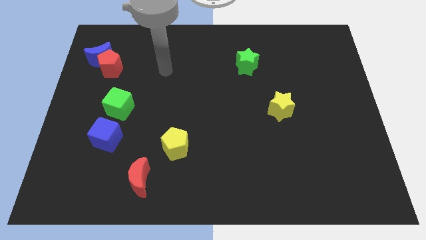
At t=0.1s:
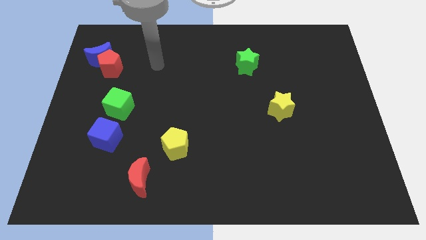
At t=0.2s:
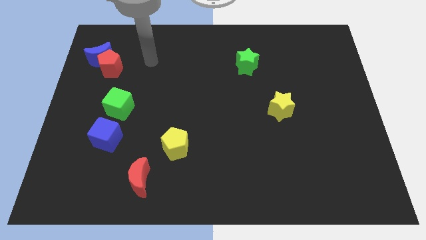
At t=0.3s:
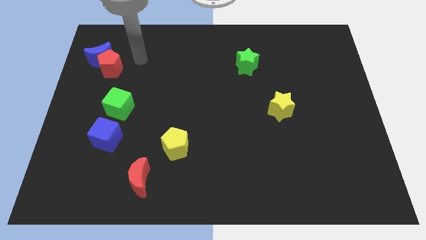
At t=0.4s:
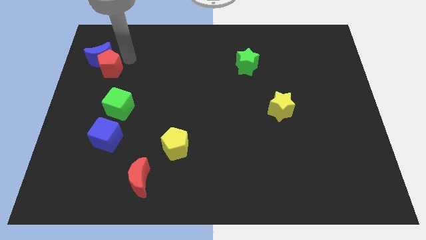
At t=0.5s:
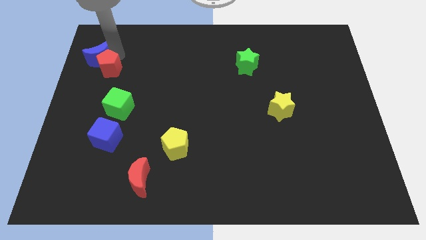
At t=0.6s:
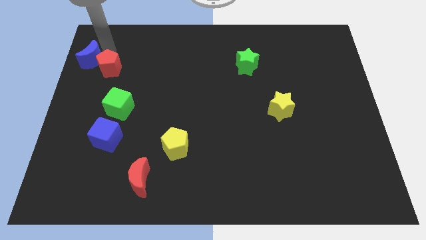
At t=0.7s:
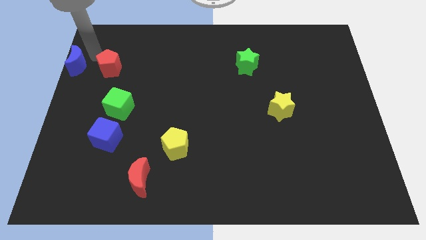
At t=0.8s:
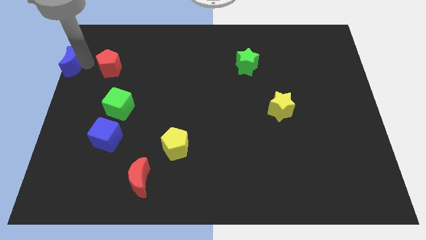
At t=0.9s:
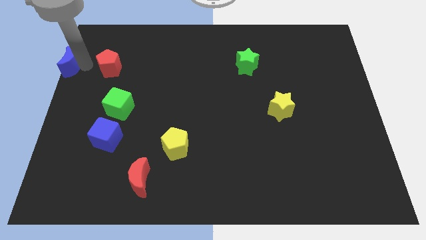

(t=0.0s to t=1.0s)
separate the red pentagon from the blue moon

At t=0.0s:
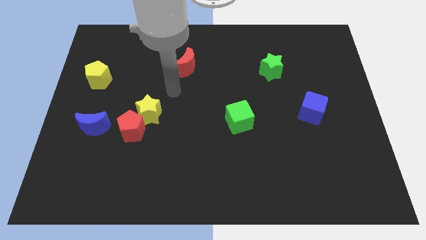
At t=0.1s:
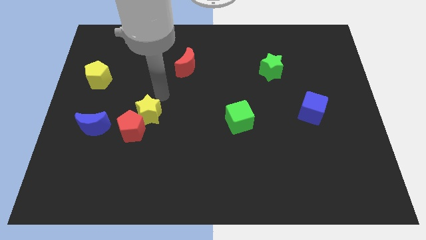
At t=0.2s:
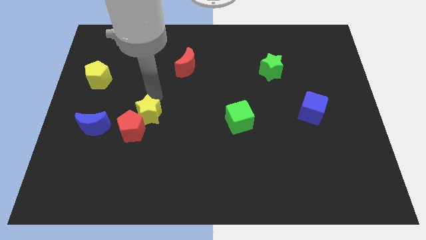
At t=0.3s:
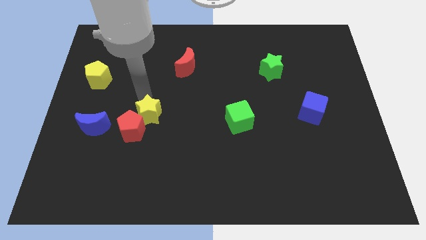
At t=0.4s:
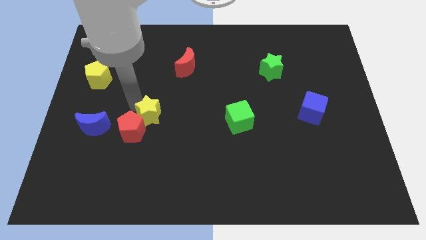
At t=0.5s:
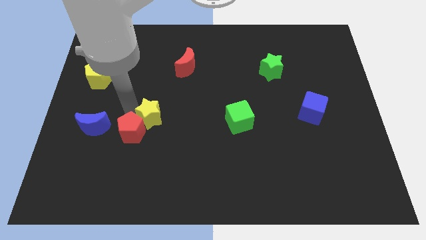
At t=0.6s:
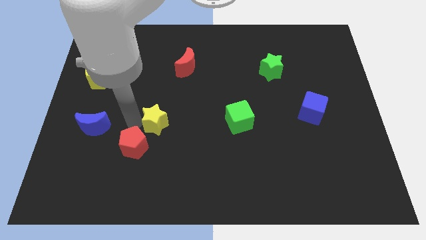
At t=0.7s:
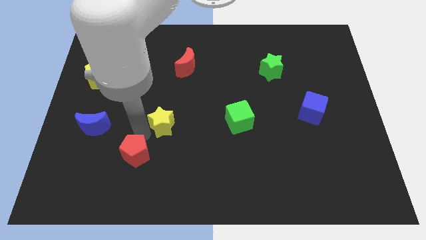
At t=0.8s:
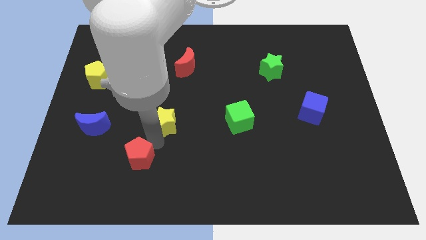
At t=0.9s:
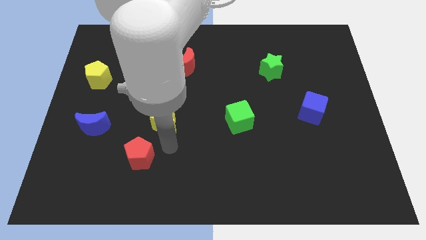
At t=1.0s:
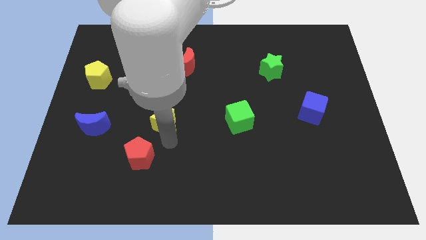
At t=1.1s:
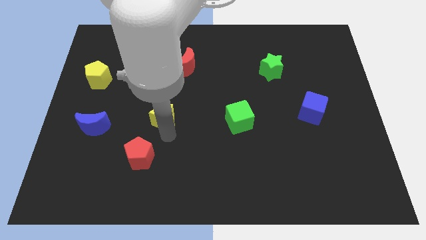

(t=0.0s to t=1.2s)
separate the yellow star from the red pentagon

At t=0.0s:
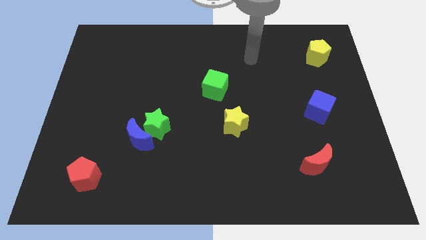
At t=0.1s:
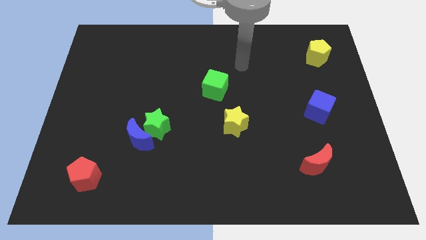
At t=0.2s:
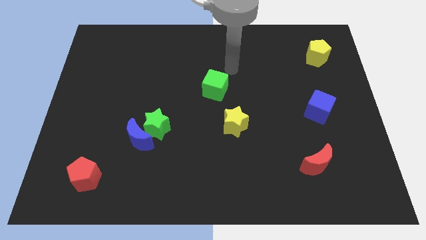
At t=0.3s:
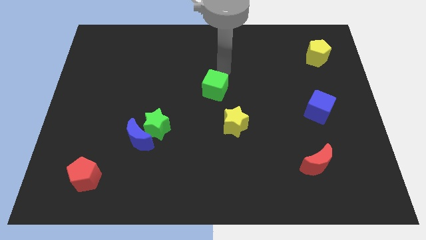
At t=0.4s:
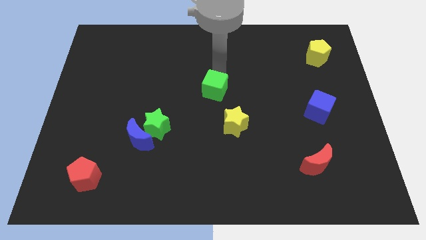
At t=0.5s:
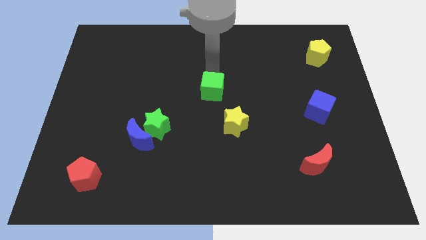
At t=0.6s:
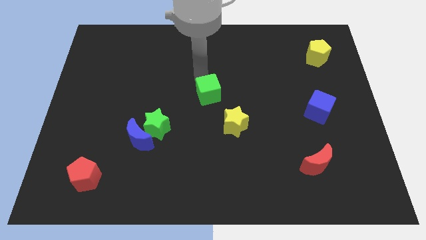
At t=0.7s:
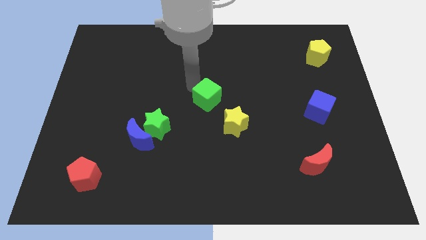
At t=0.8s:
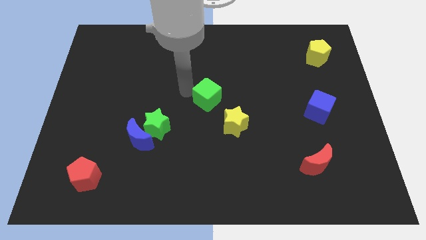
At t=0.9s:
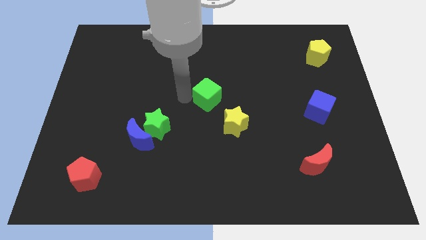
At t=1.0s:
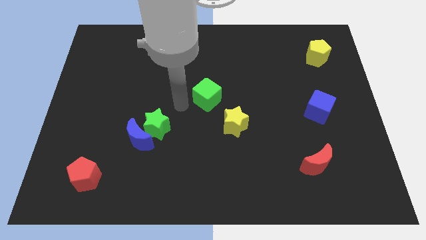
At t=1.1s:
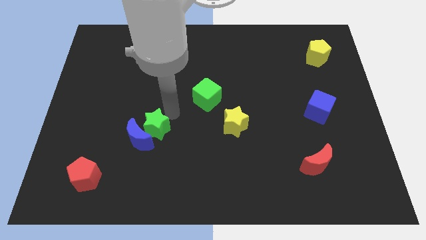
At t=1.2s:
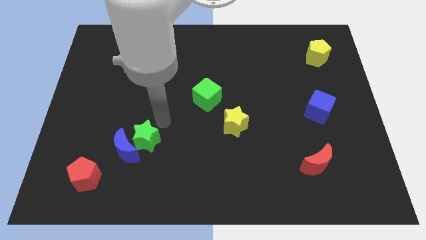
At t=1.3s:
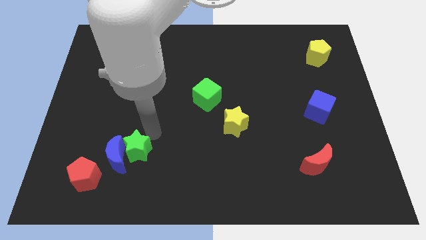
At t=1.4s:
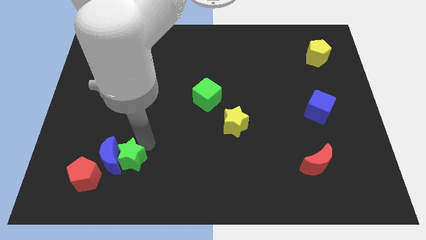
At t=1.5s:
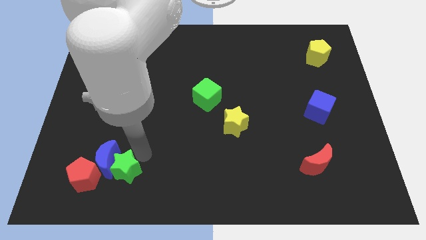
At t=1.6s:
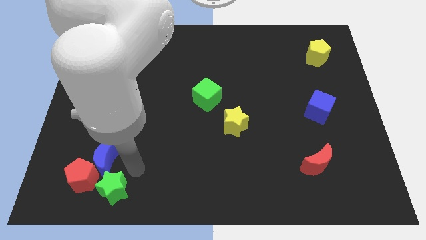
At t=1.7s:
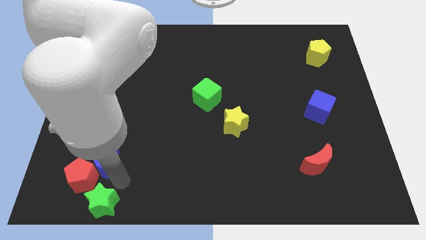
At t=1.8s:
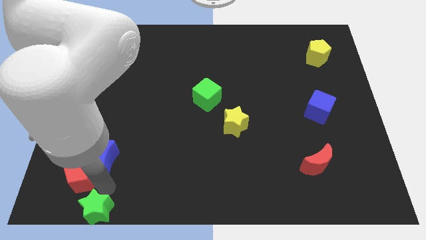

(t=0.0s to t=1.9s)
pull the blue moon apart from the green star

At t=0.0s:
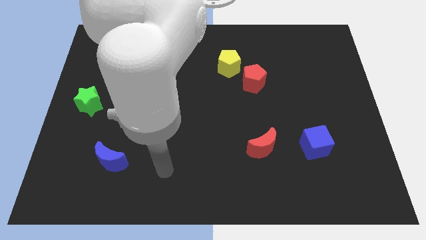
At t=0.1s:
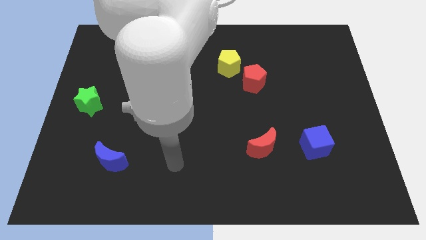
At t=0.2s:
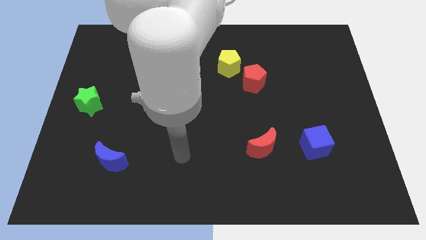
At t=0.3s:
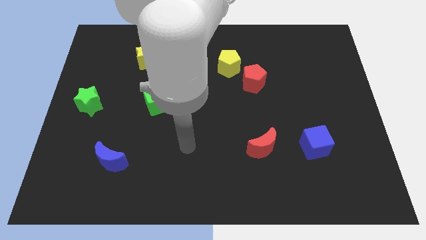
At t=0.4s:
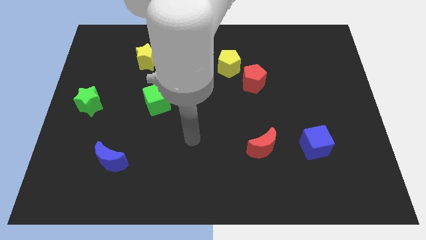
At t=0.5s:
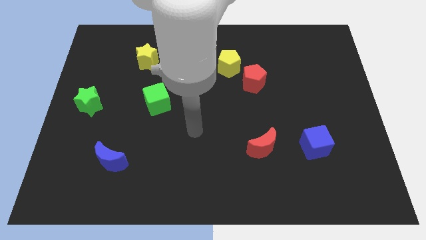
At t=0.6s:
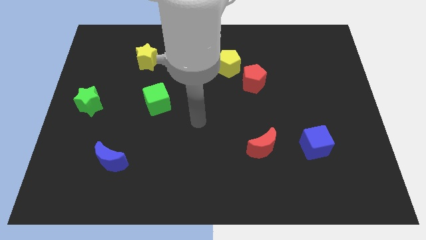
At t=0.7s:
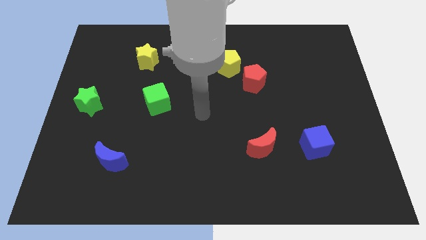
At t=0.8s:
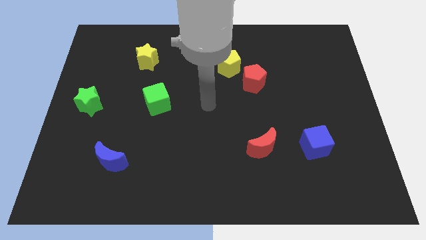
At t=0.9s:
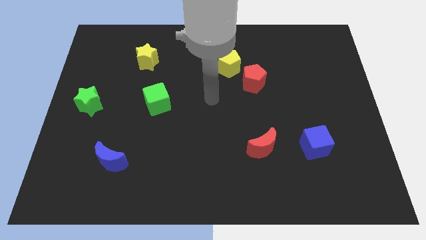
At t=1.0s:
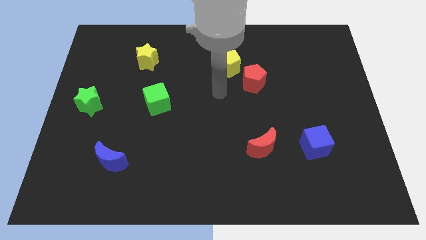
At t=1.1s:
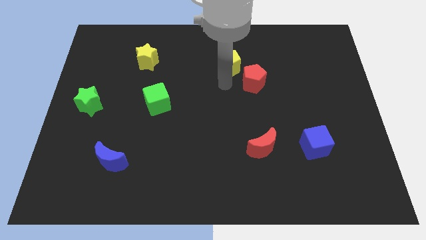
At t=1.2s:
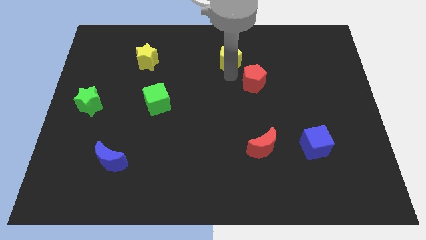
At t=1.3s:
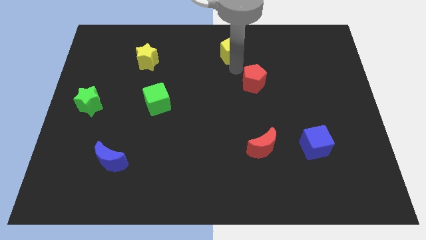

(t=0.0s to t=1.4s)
pull the red pentagon apart from the yellow pentagon

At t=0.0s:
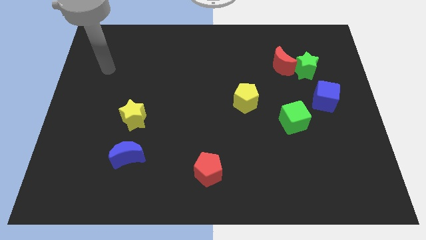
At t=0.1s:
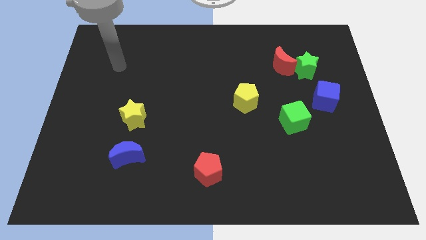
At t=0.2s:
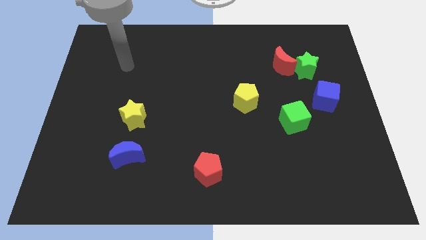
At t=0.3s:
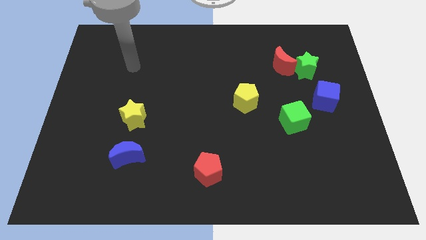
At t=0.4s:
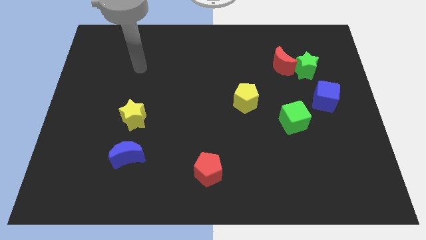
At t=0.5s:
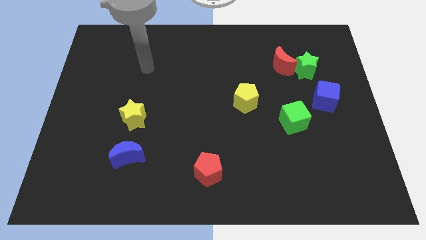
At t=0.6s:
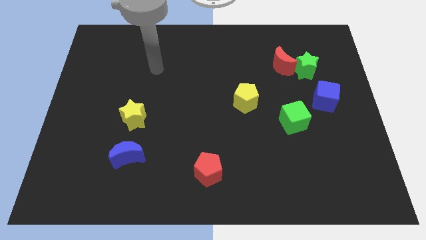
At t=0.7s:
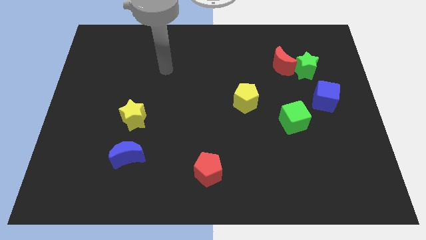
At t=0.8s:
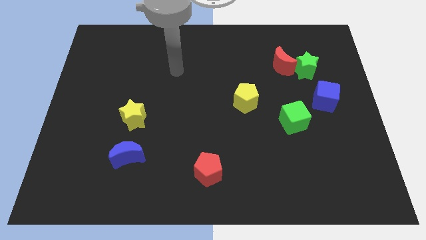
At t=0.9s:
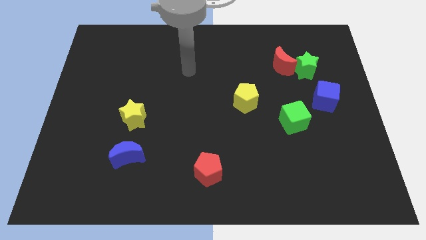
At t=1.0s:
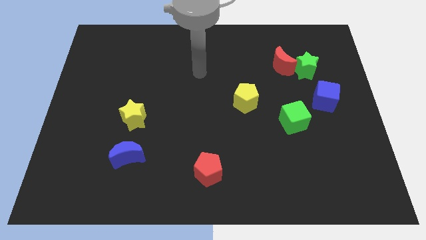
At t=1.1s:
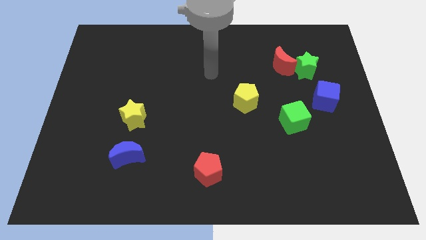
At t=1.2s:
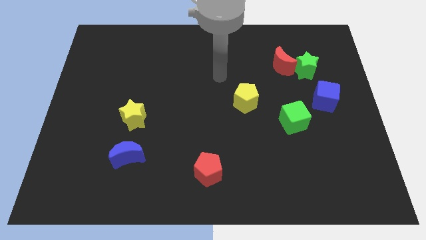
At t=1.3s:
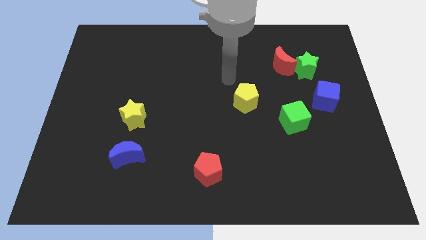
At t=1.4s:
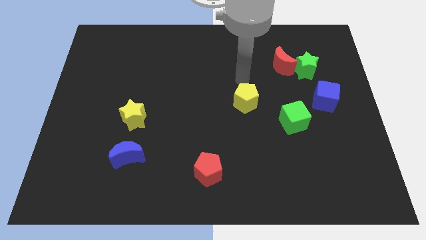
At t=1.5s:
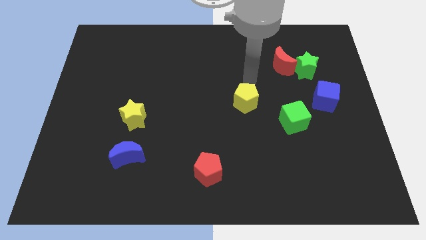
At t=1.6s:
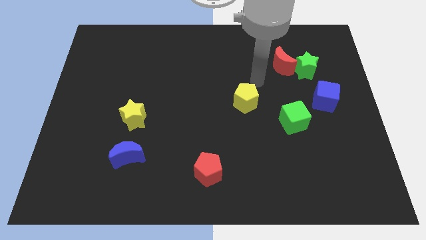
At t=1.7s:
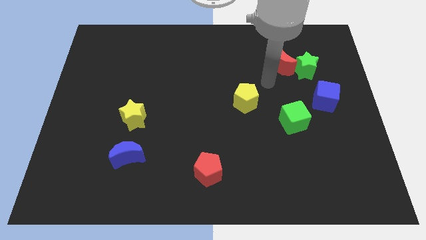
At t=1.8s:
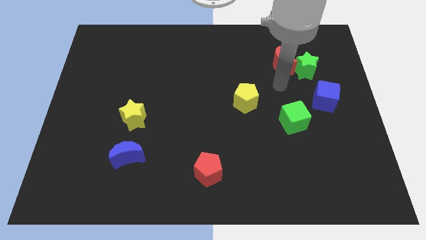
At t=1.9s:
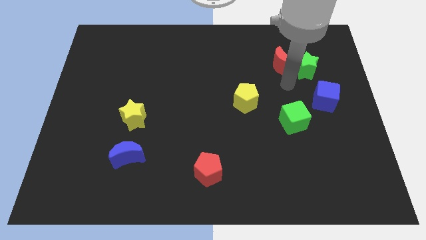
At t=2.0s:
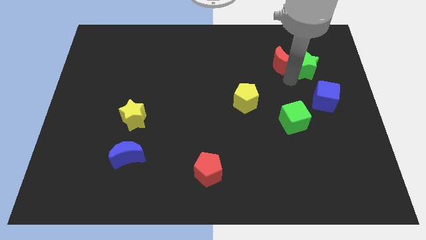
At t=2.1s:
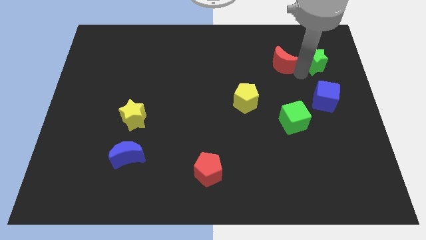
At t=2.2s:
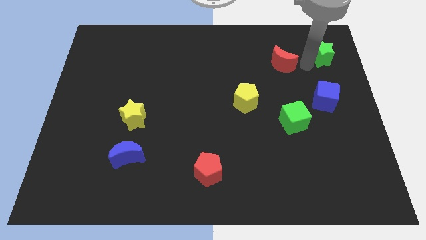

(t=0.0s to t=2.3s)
separate the red moon from the green star

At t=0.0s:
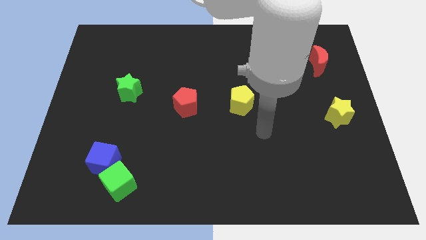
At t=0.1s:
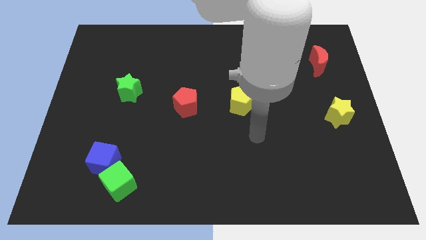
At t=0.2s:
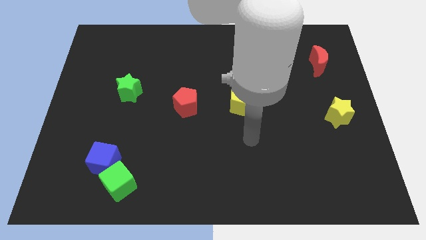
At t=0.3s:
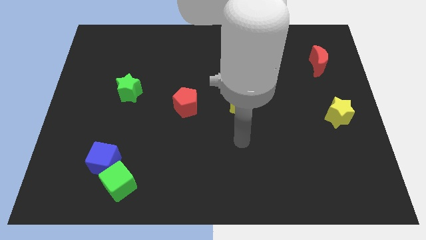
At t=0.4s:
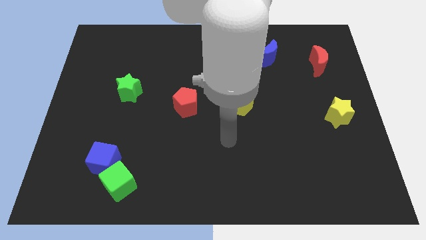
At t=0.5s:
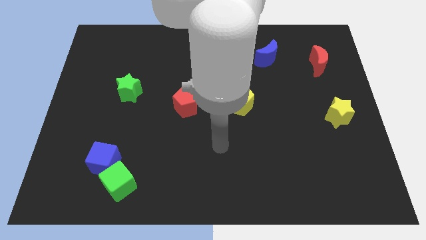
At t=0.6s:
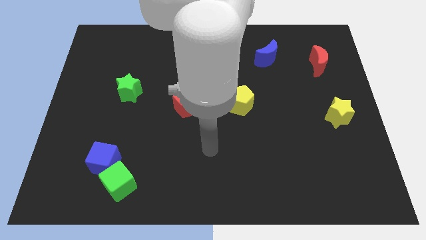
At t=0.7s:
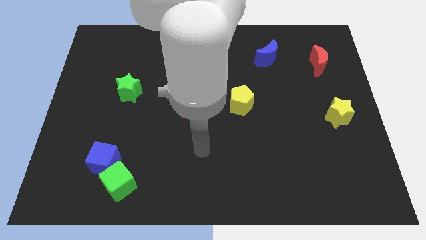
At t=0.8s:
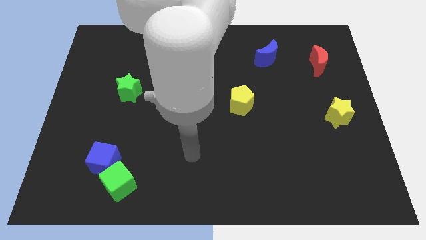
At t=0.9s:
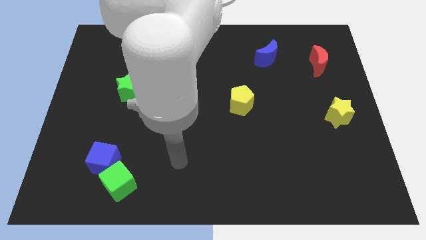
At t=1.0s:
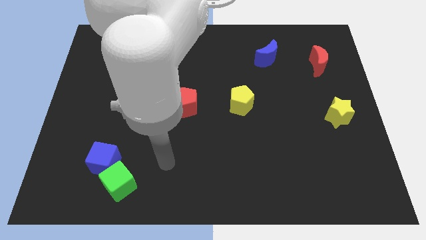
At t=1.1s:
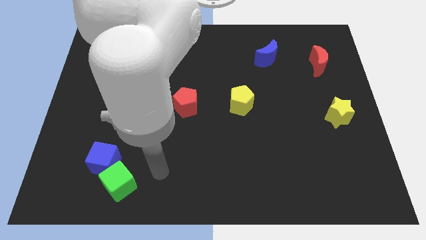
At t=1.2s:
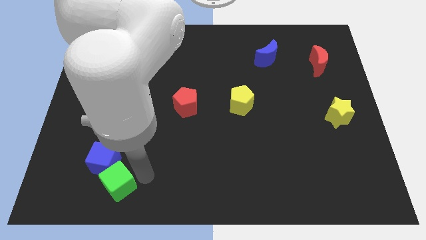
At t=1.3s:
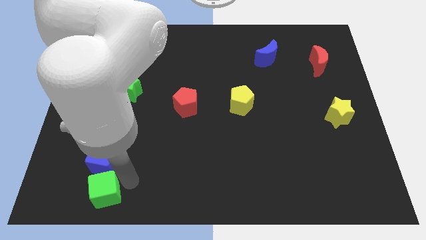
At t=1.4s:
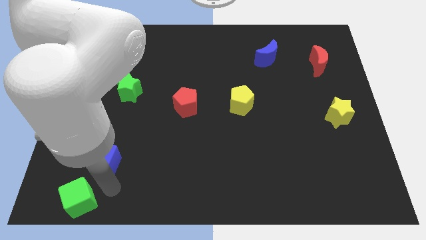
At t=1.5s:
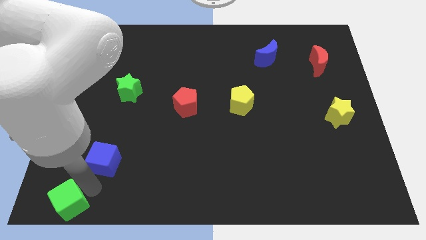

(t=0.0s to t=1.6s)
separate the blue cube from the green cube
